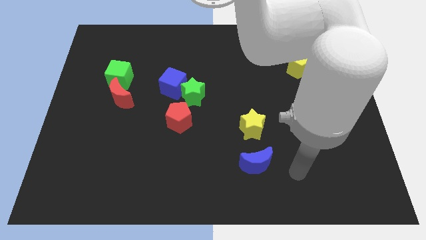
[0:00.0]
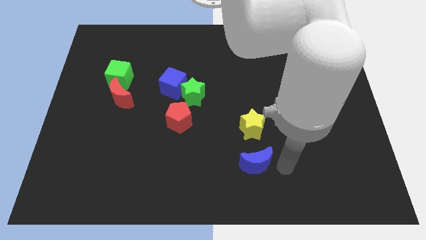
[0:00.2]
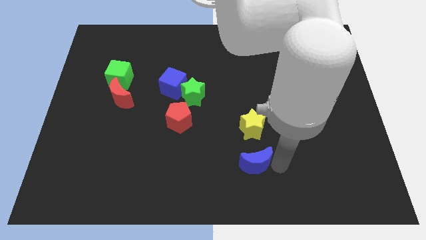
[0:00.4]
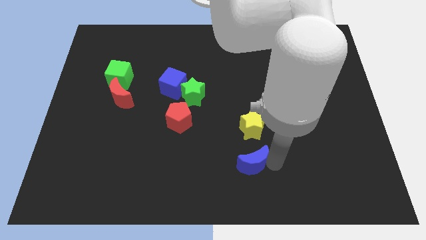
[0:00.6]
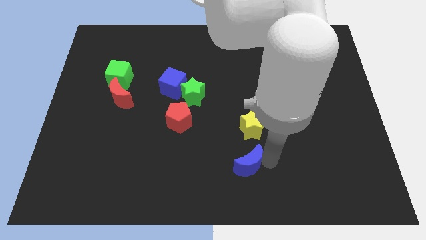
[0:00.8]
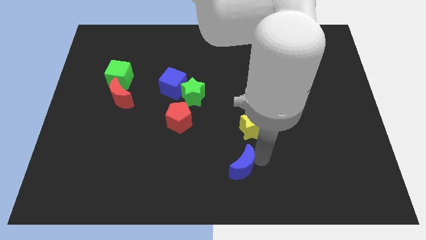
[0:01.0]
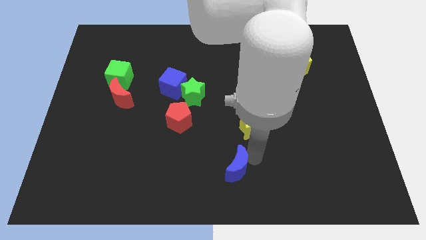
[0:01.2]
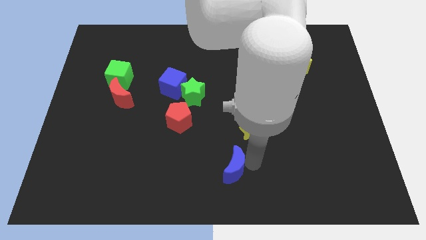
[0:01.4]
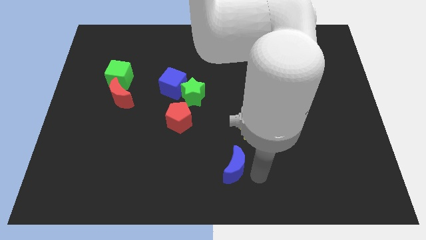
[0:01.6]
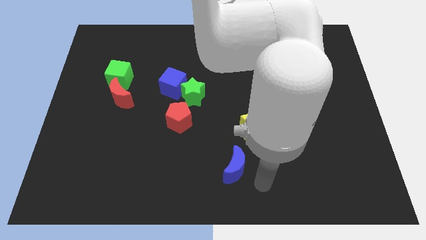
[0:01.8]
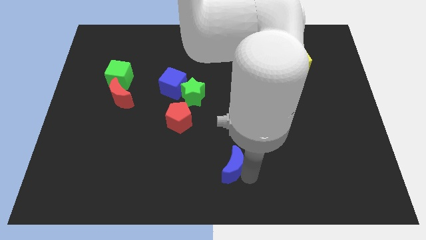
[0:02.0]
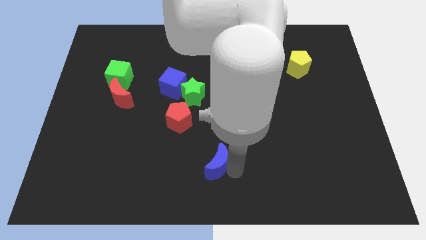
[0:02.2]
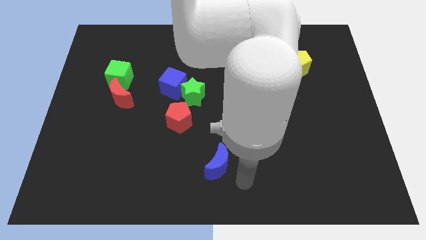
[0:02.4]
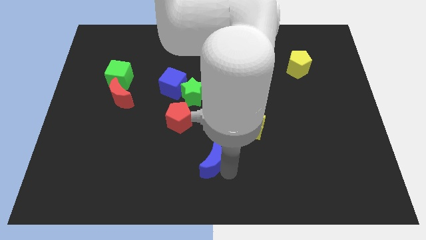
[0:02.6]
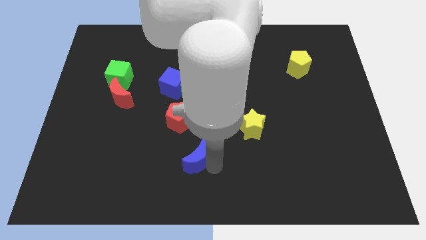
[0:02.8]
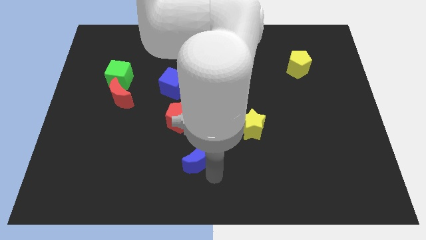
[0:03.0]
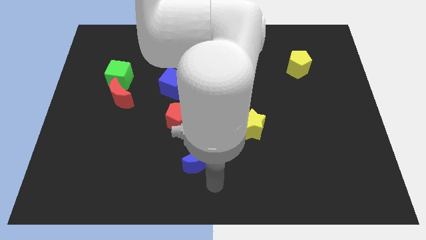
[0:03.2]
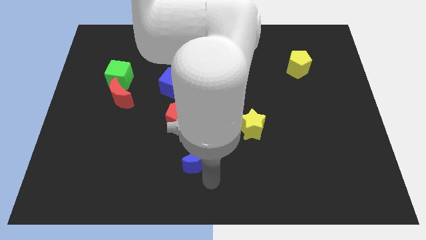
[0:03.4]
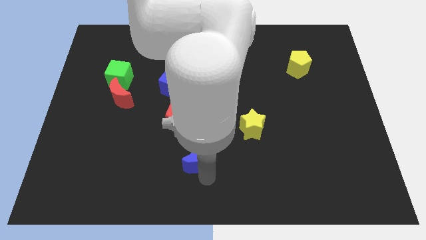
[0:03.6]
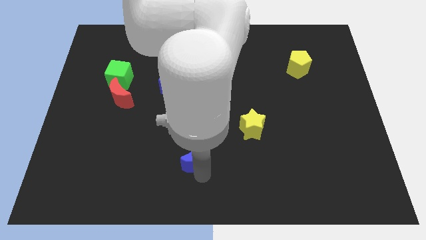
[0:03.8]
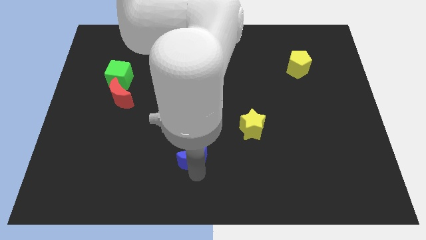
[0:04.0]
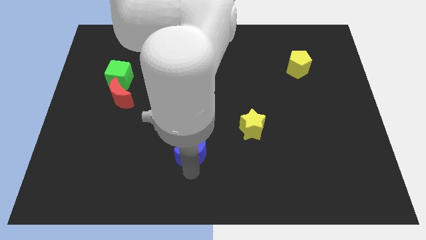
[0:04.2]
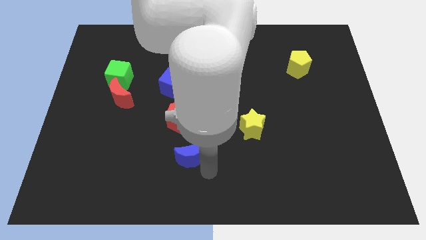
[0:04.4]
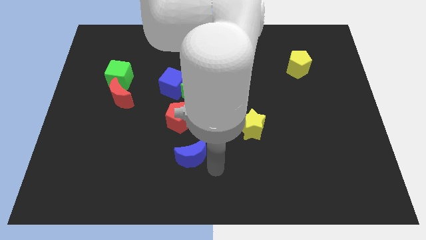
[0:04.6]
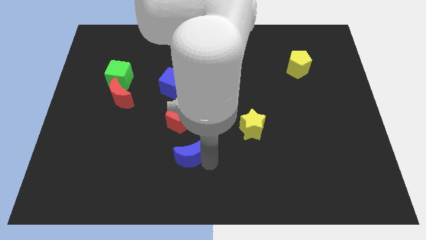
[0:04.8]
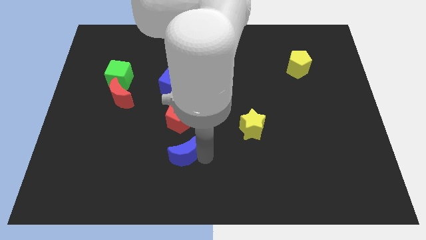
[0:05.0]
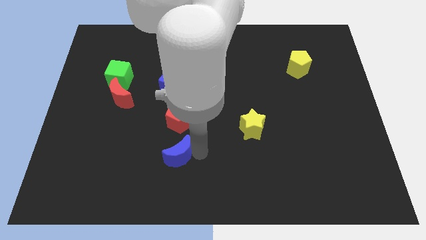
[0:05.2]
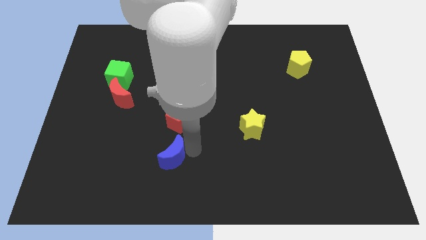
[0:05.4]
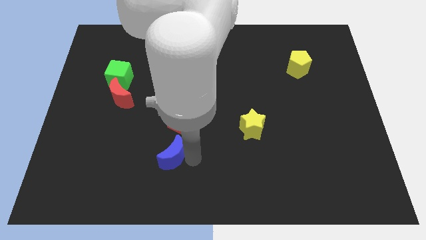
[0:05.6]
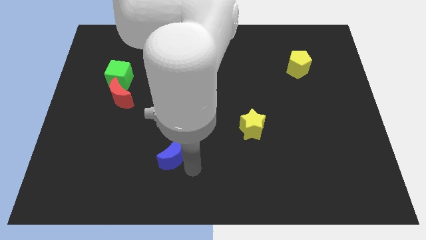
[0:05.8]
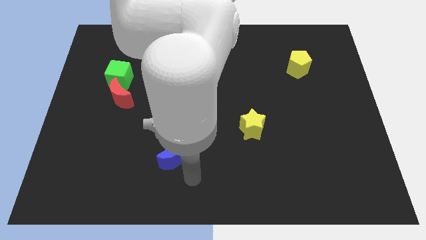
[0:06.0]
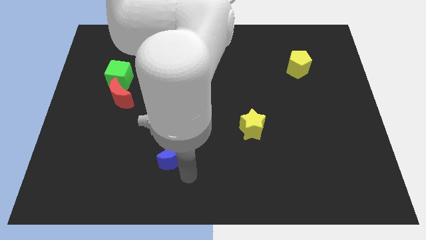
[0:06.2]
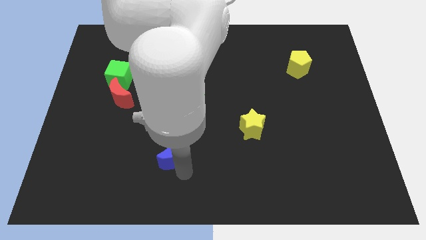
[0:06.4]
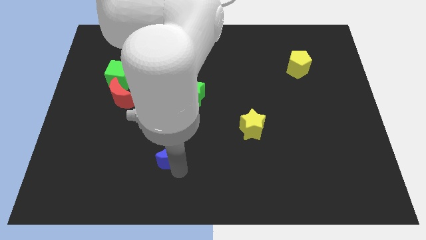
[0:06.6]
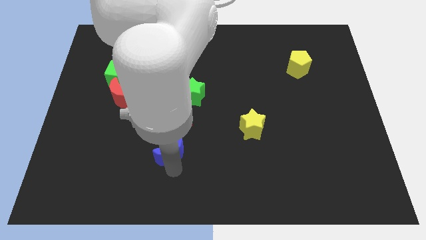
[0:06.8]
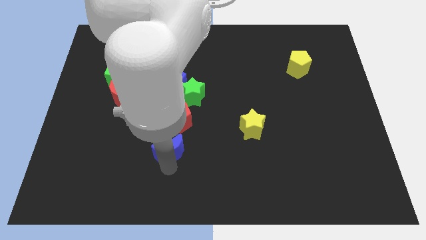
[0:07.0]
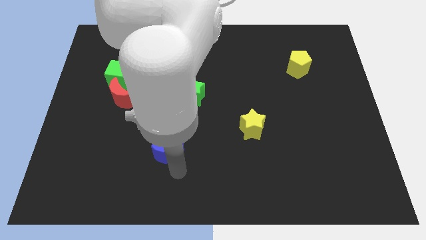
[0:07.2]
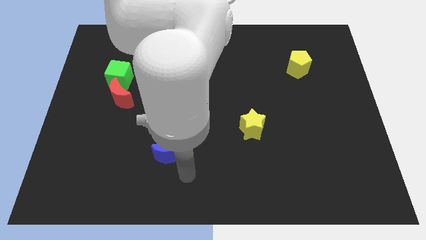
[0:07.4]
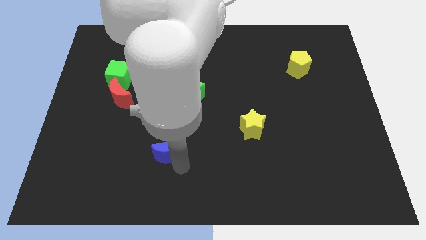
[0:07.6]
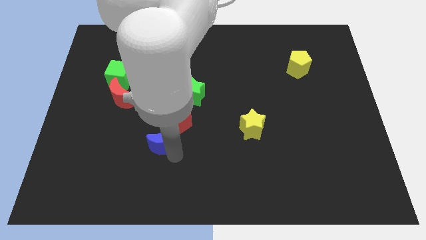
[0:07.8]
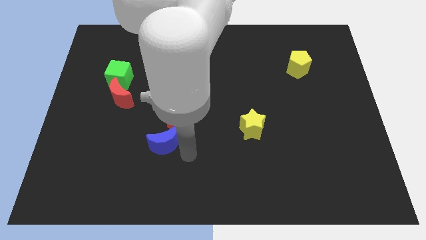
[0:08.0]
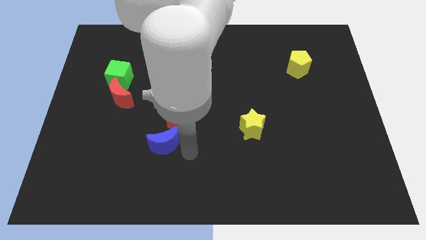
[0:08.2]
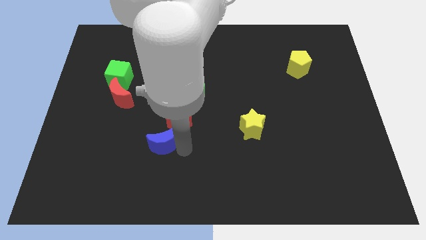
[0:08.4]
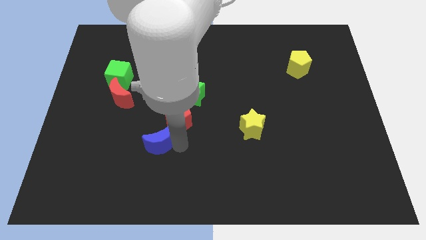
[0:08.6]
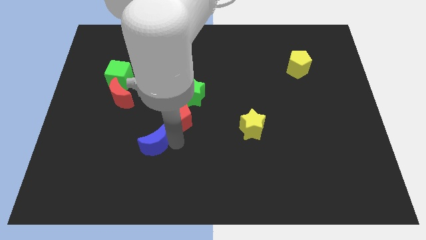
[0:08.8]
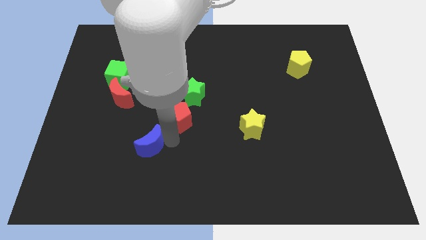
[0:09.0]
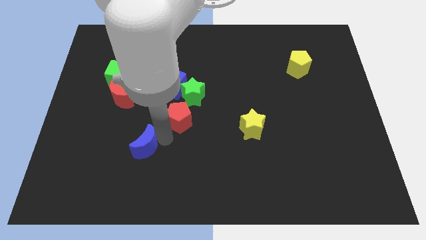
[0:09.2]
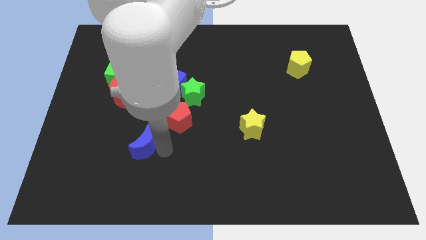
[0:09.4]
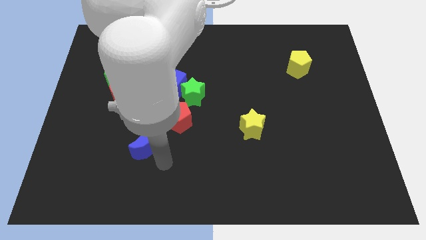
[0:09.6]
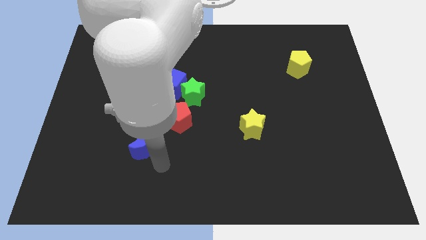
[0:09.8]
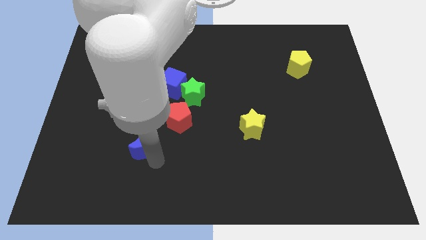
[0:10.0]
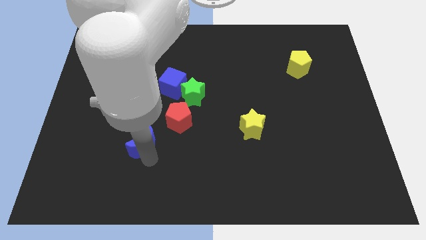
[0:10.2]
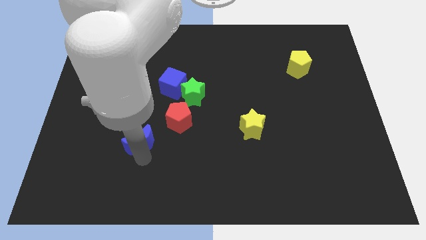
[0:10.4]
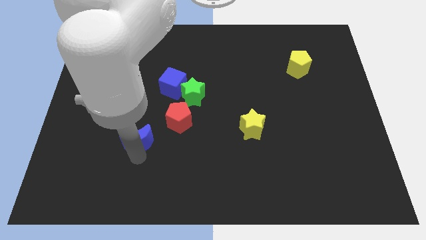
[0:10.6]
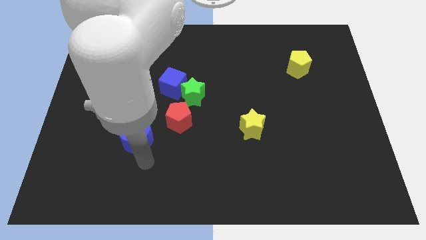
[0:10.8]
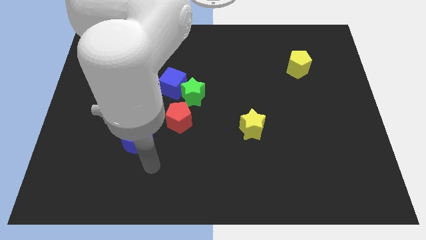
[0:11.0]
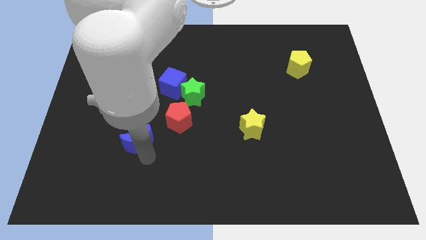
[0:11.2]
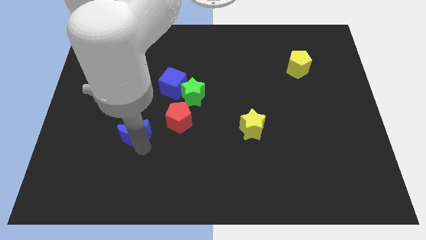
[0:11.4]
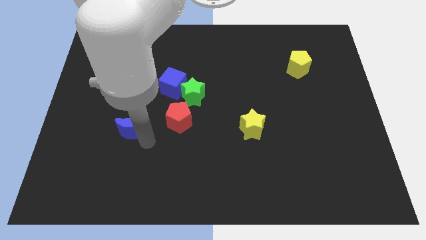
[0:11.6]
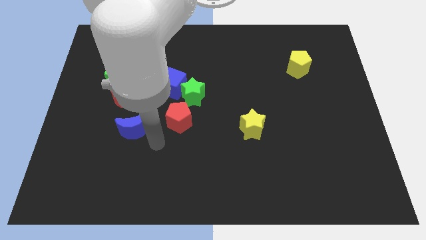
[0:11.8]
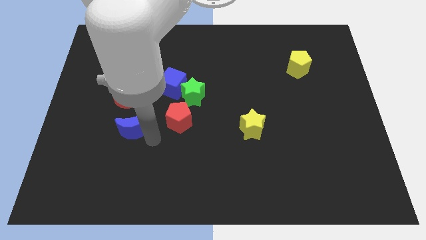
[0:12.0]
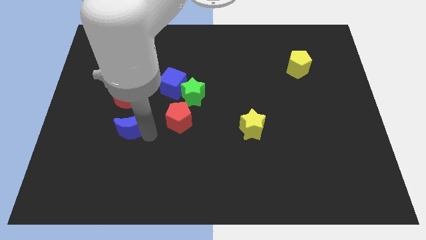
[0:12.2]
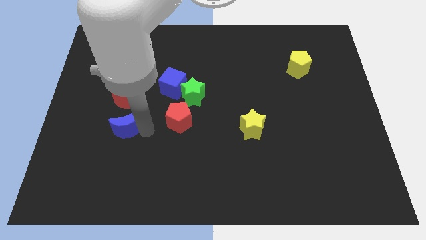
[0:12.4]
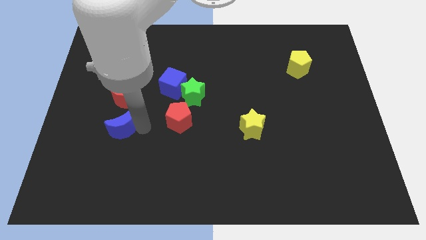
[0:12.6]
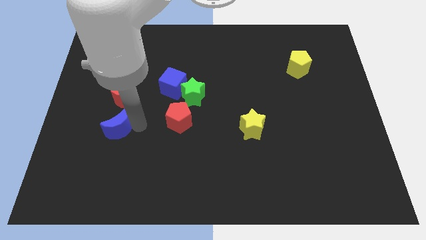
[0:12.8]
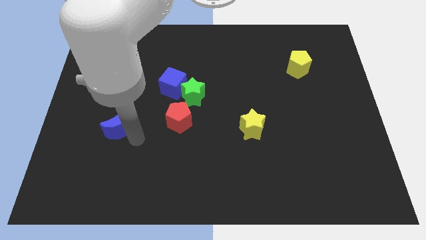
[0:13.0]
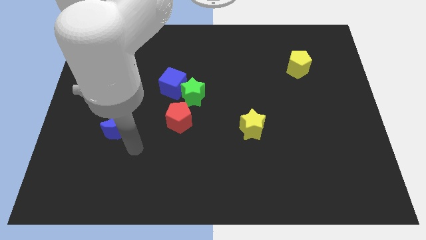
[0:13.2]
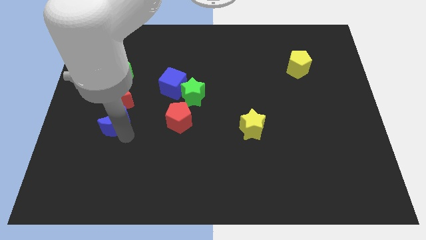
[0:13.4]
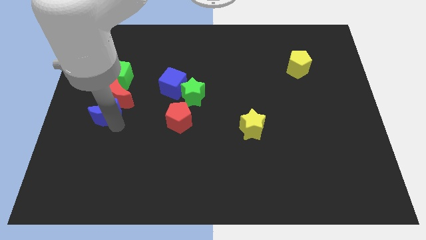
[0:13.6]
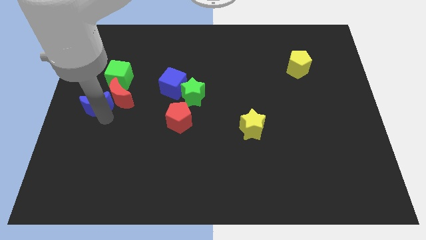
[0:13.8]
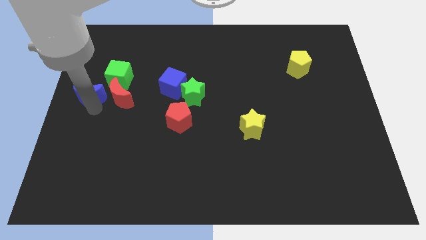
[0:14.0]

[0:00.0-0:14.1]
move the blue moon to the top left side of the red moon
